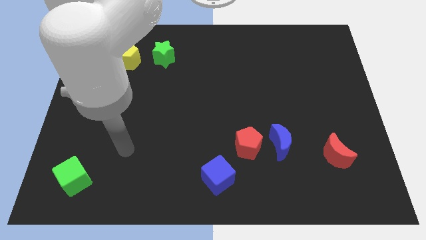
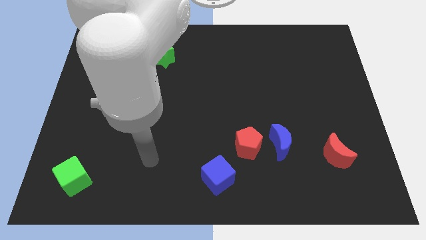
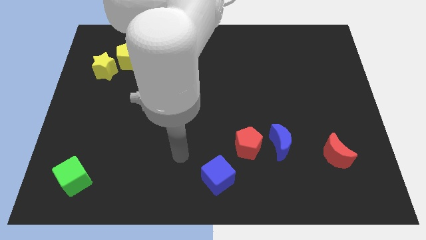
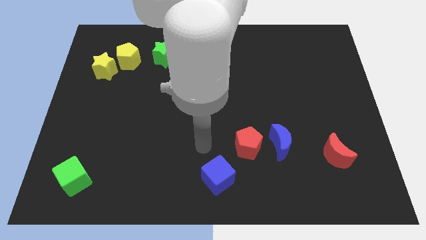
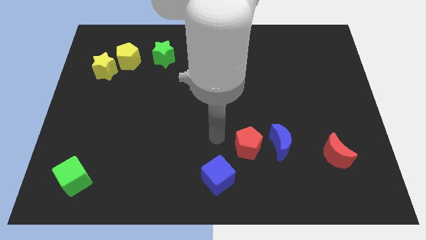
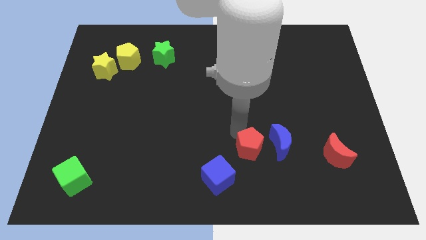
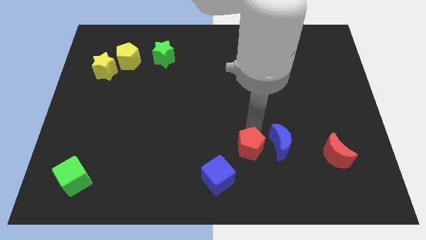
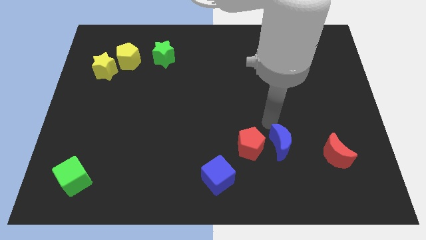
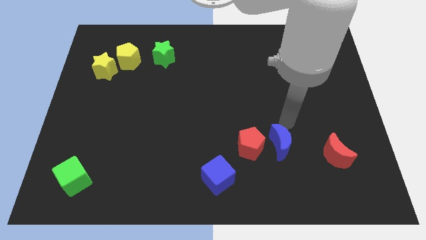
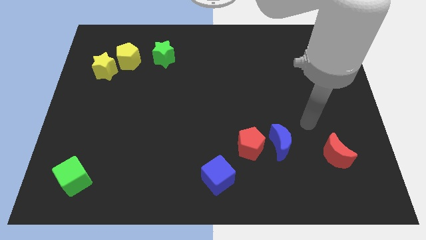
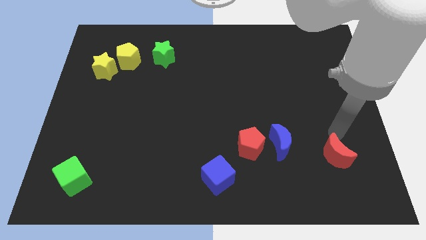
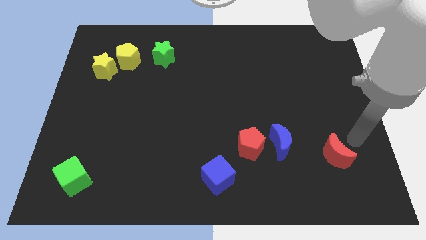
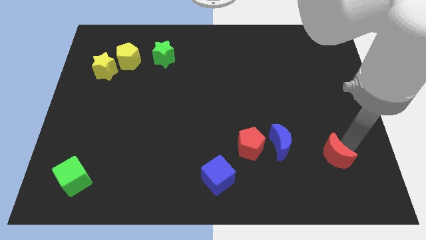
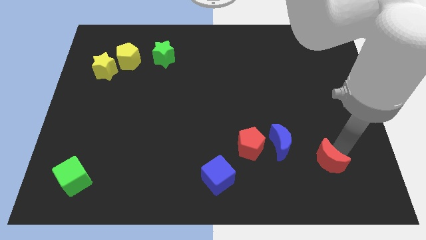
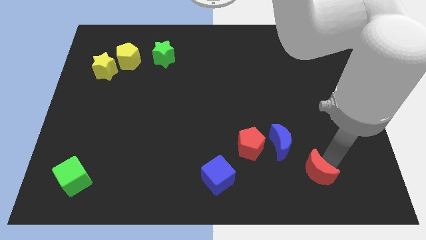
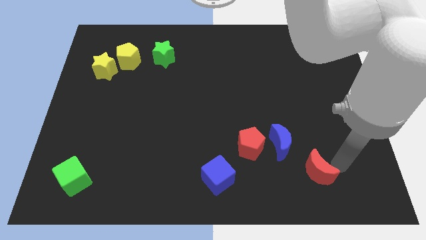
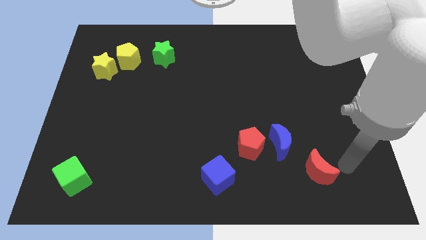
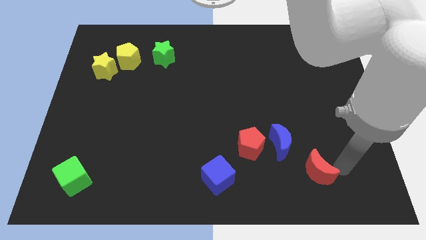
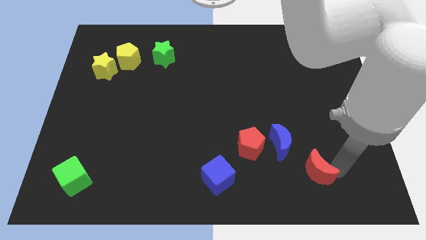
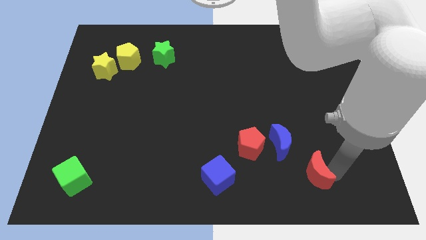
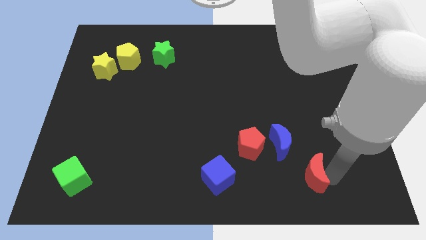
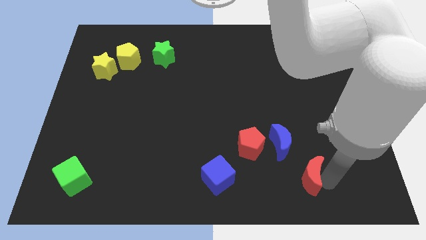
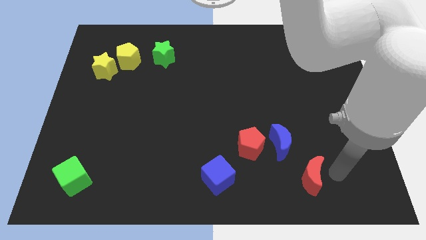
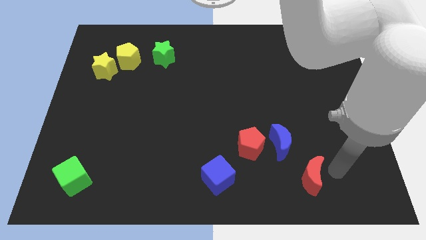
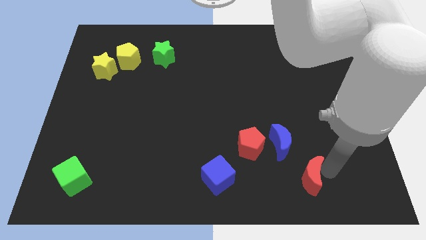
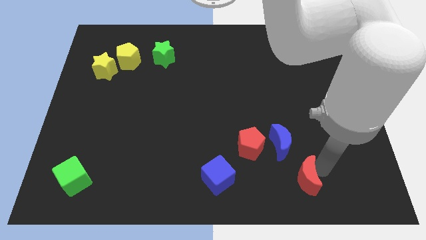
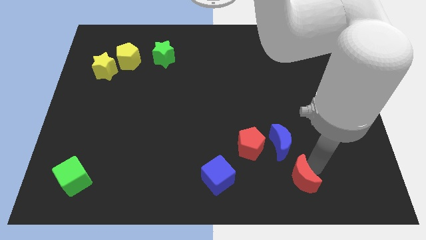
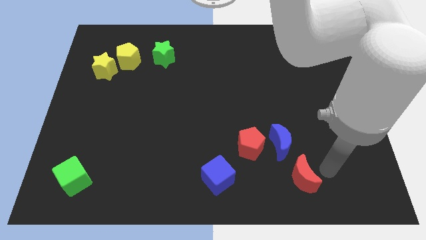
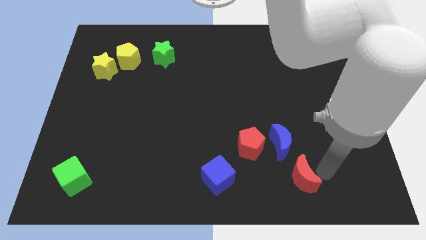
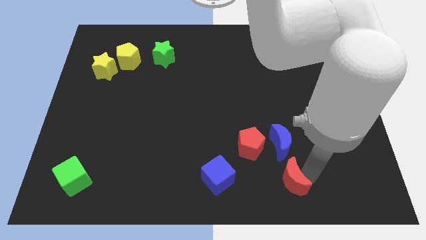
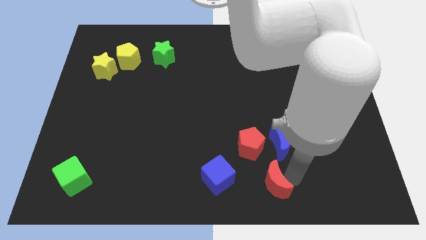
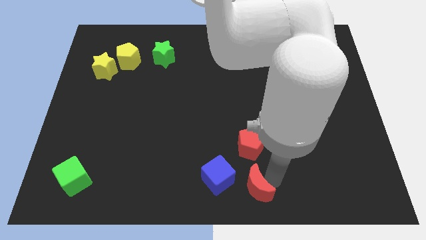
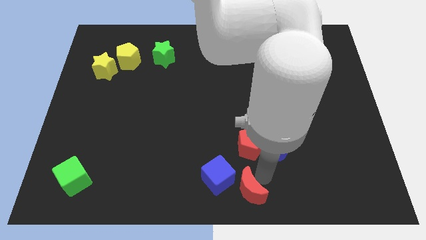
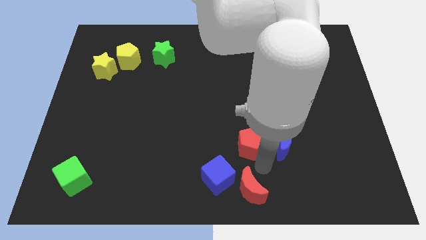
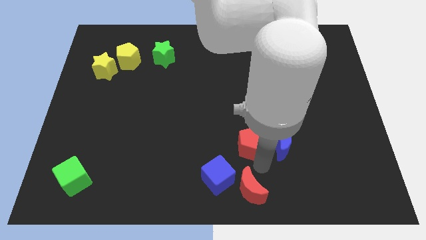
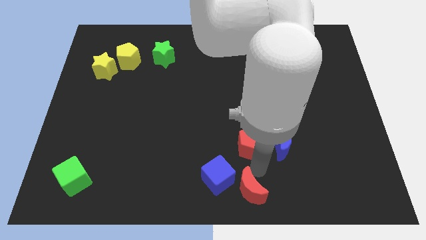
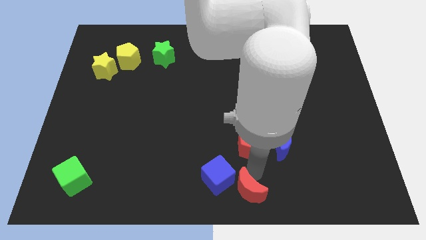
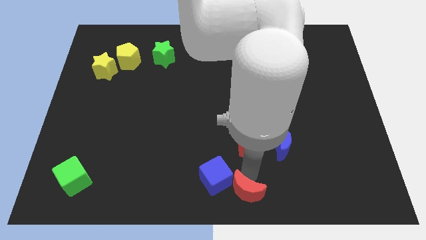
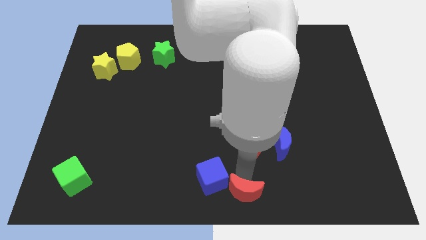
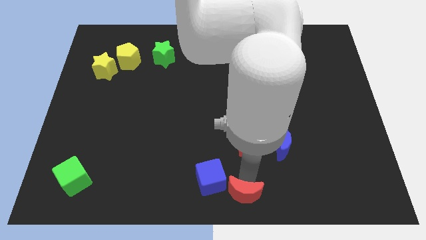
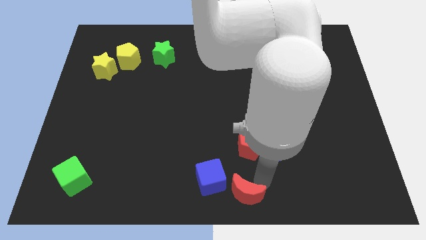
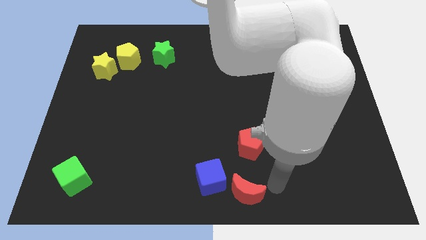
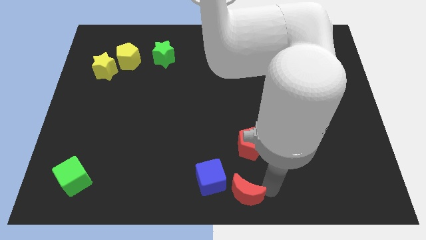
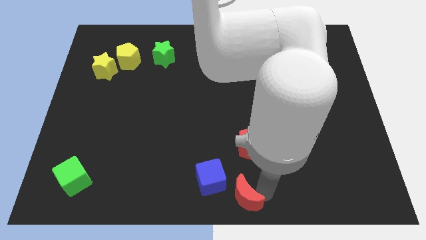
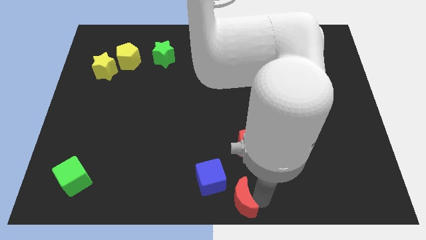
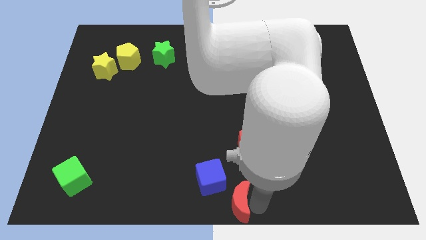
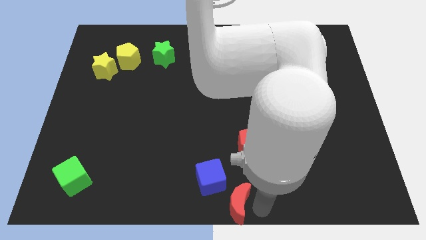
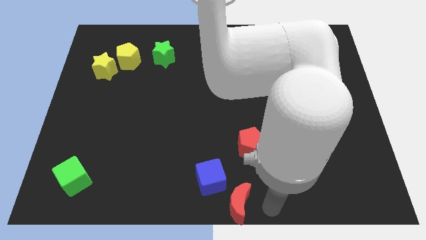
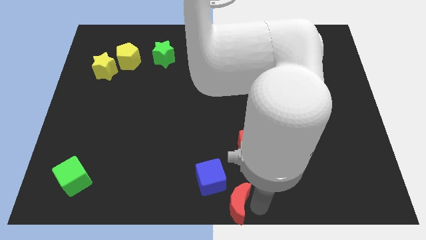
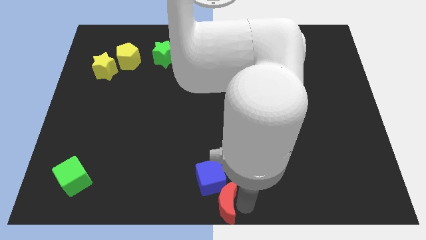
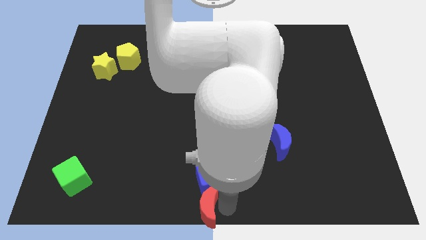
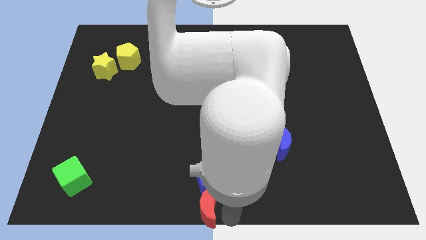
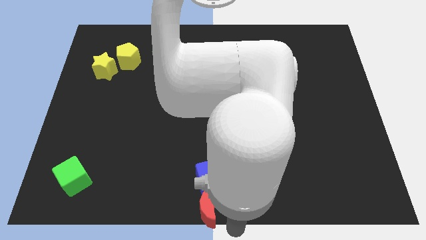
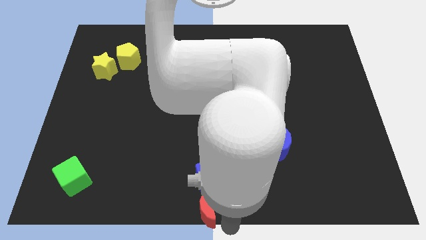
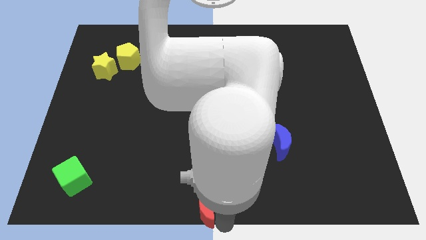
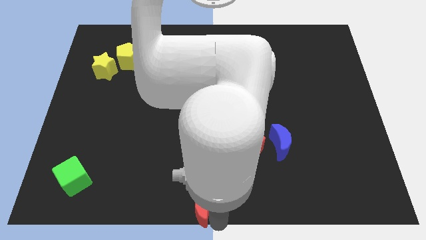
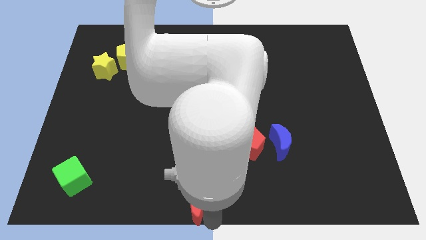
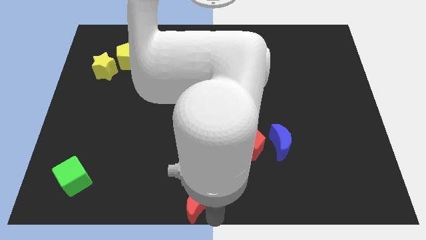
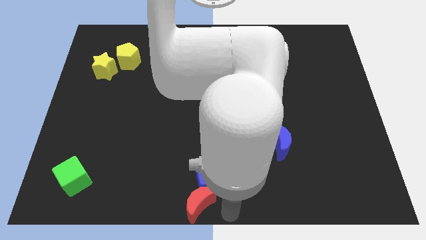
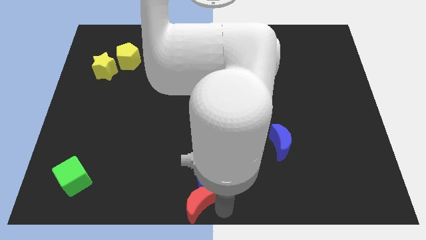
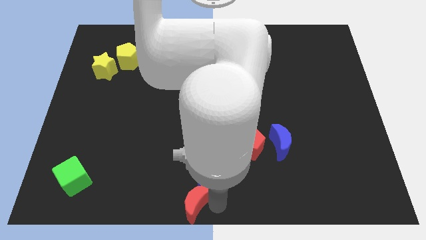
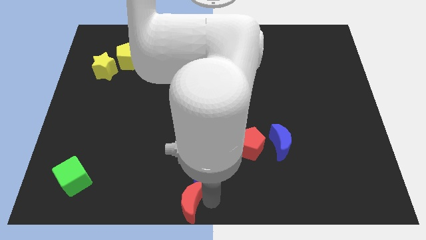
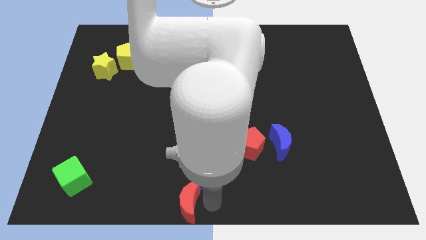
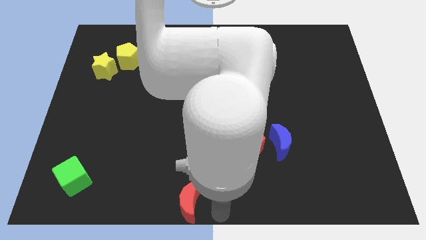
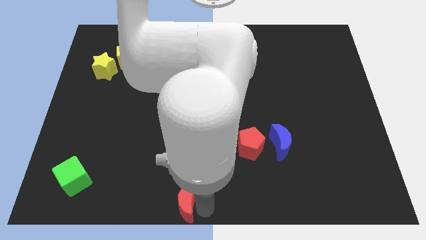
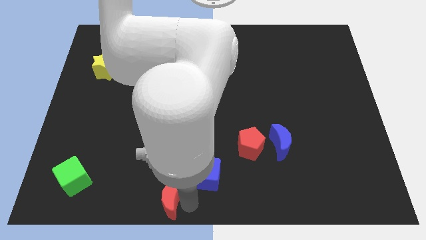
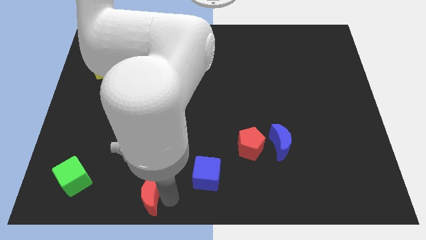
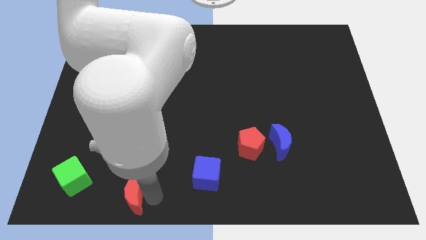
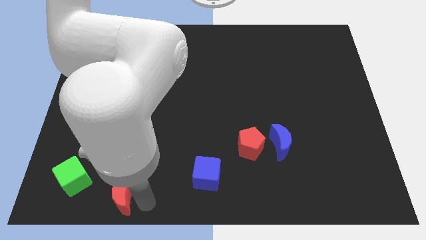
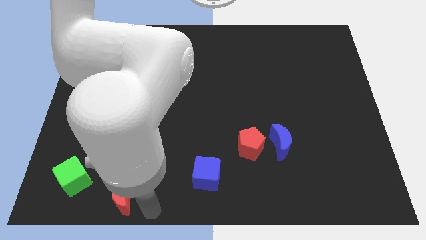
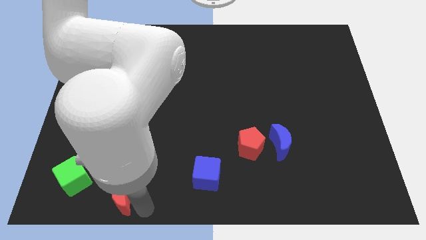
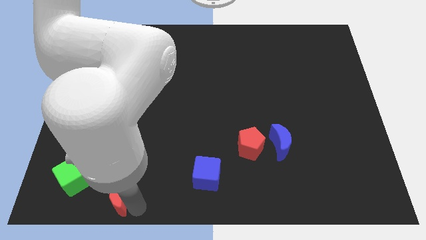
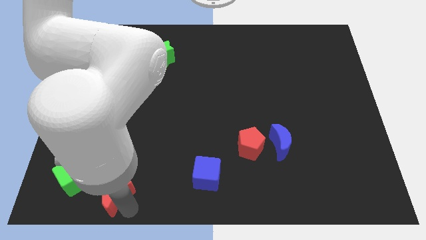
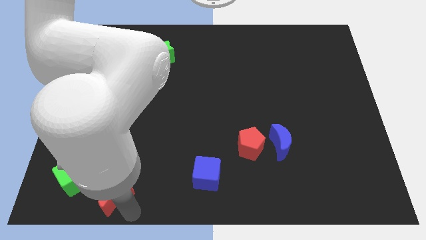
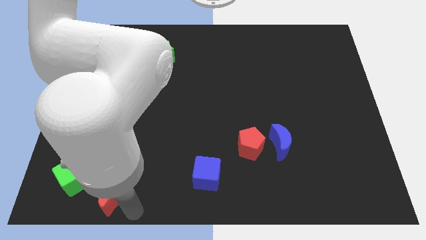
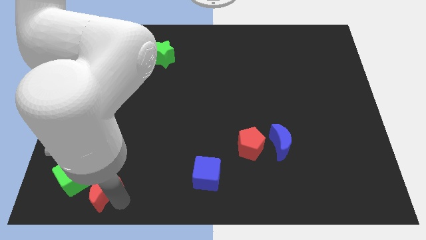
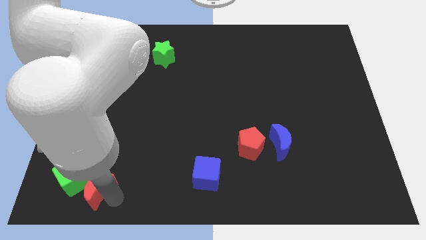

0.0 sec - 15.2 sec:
put the red moon towards the green cube
